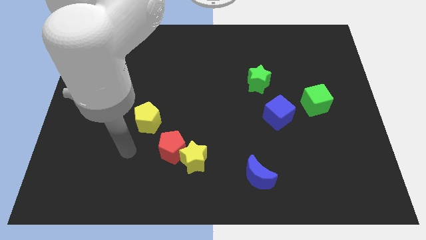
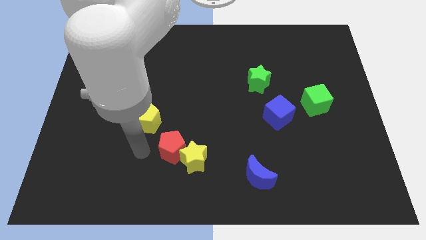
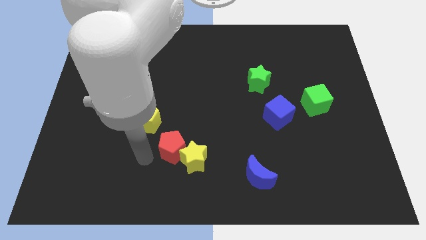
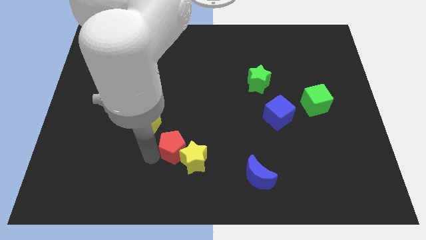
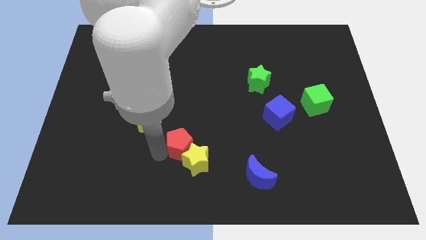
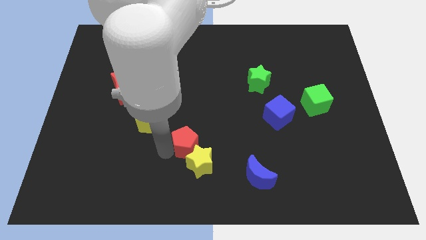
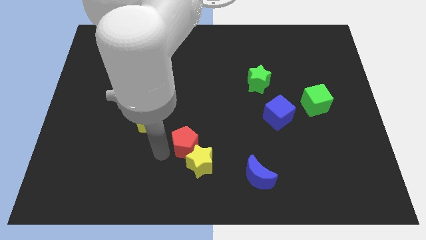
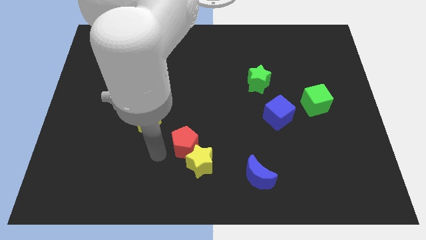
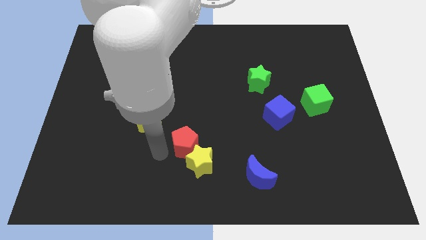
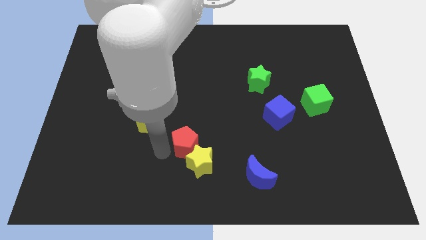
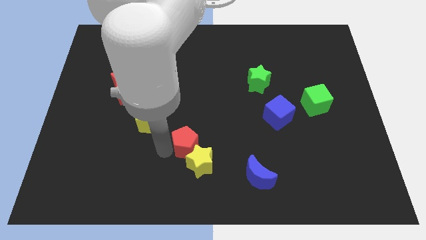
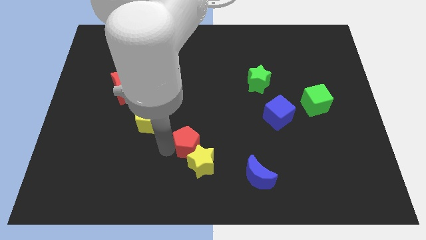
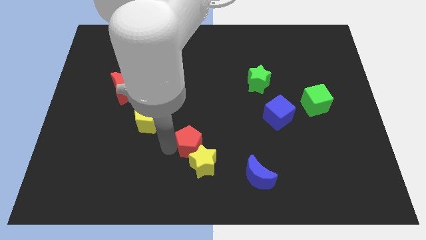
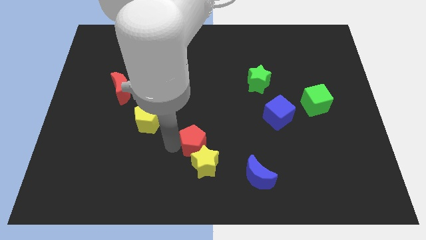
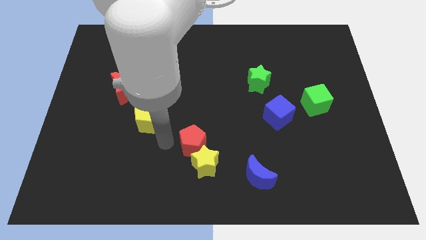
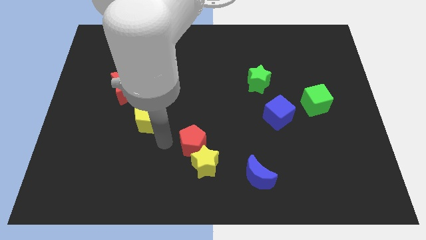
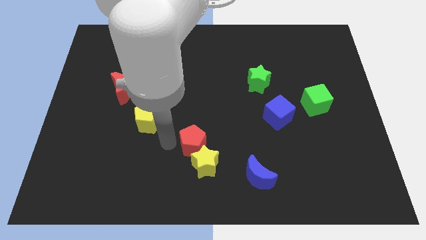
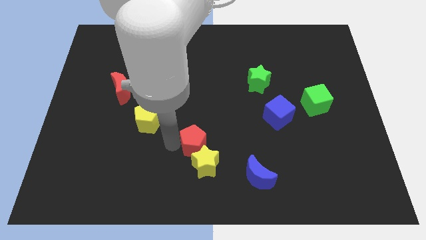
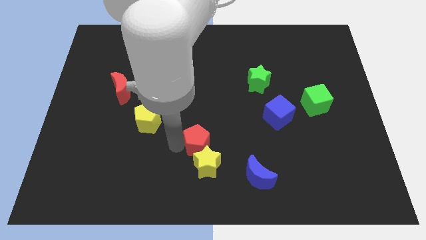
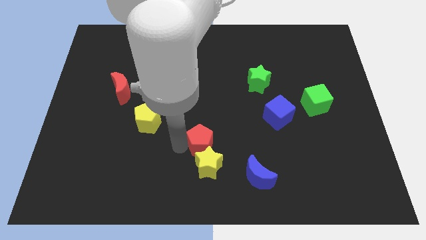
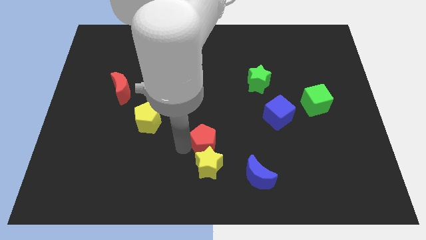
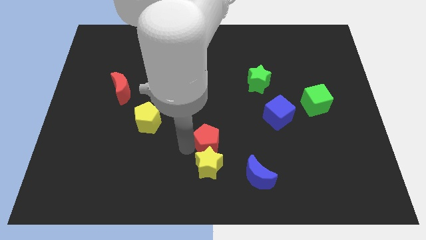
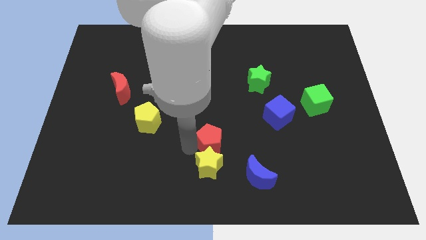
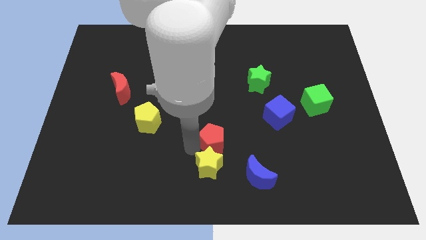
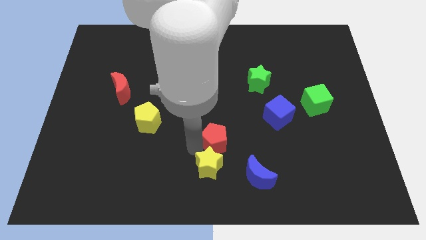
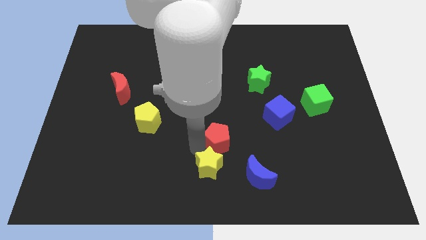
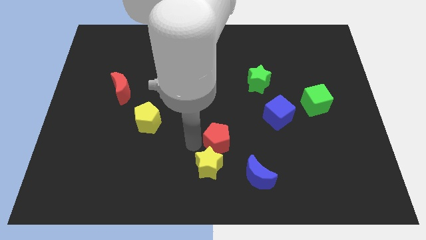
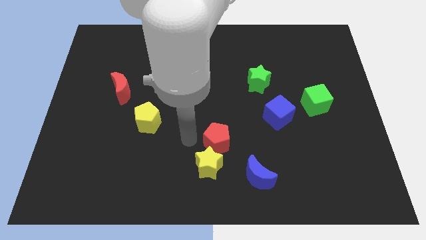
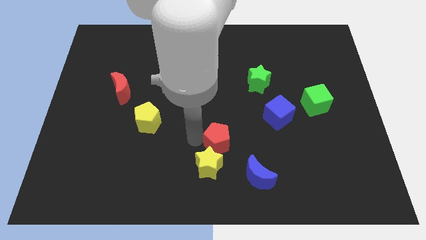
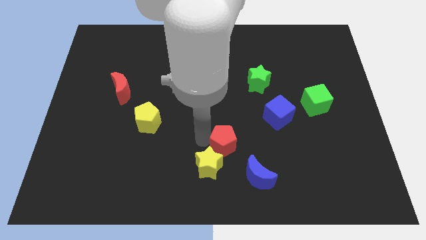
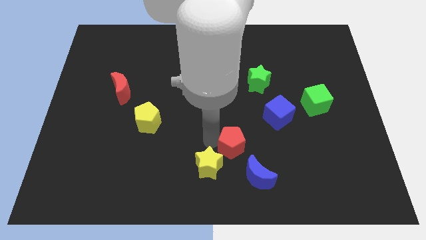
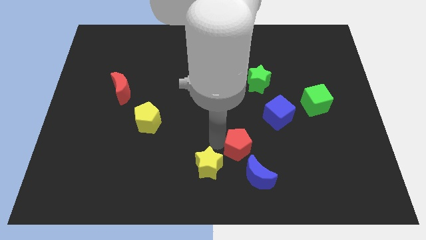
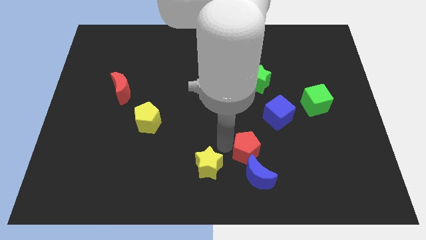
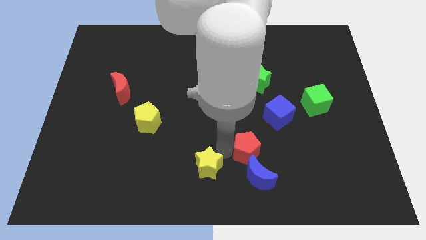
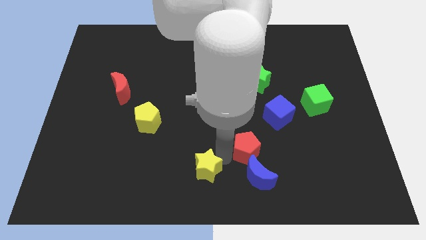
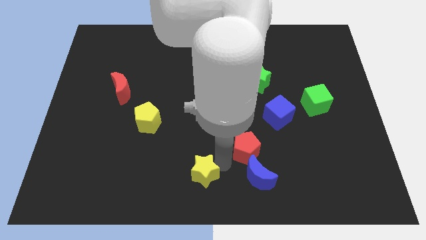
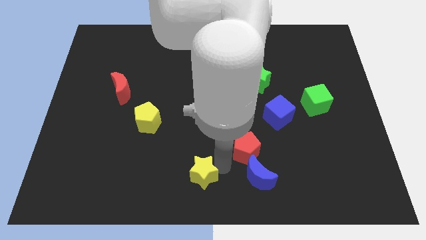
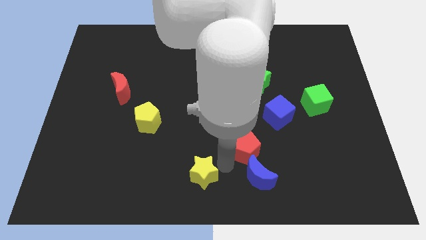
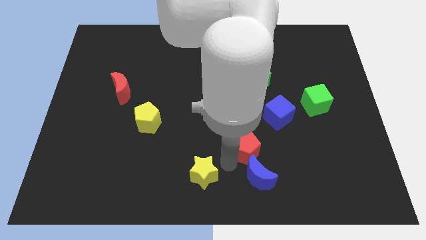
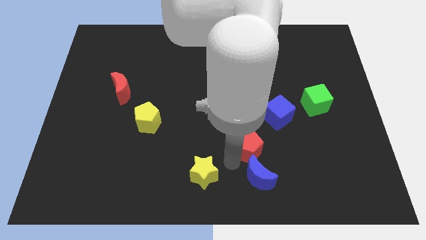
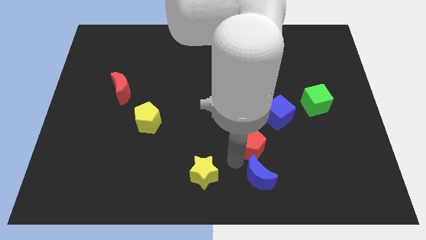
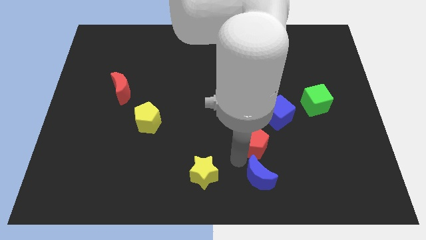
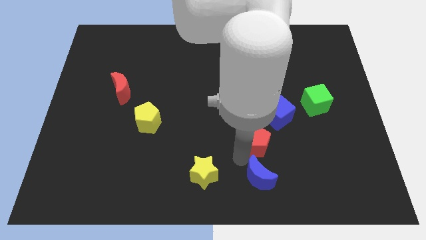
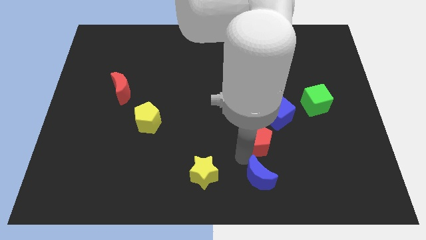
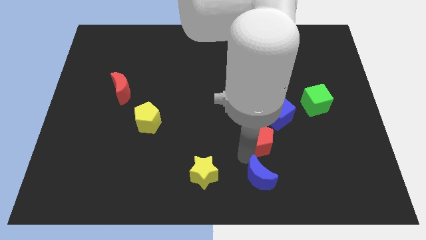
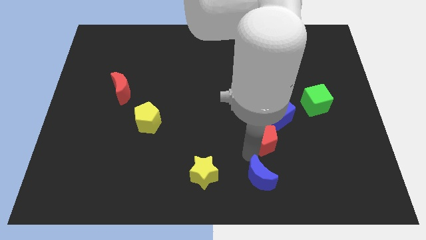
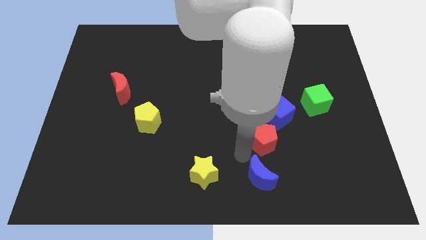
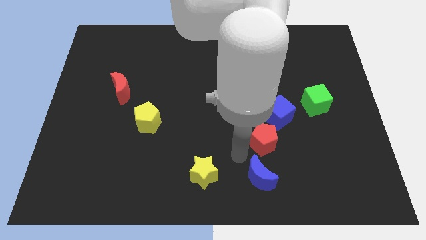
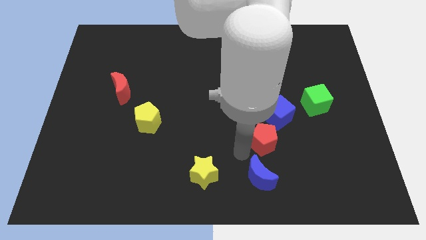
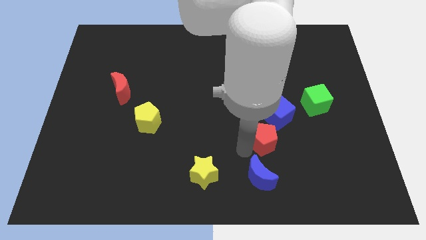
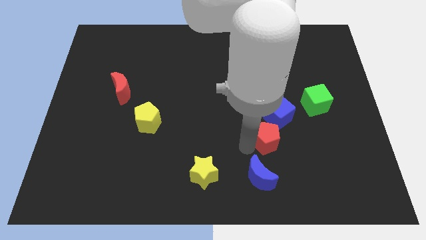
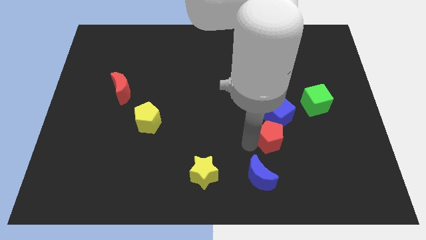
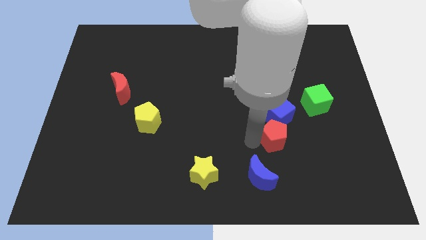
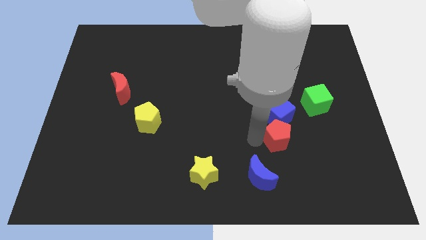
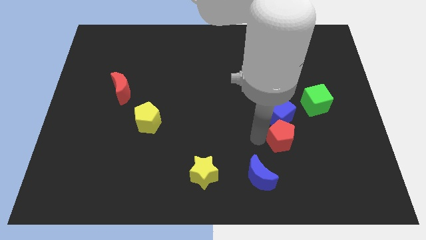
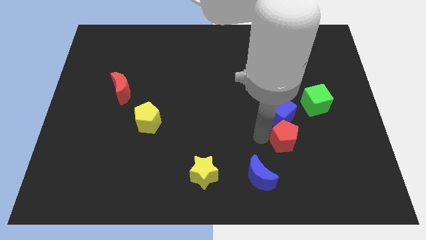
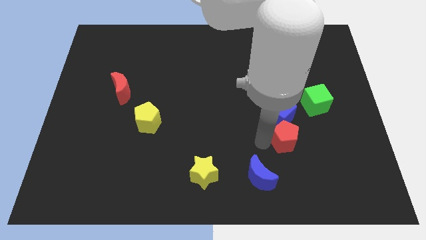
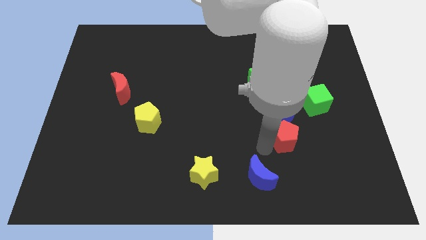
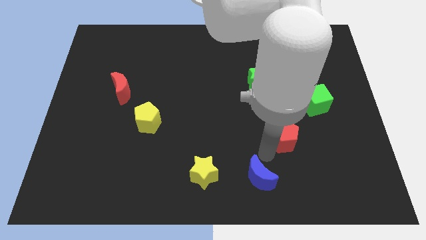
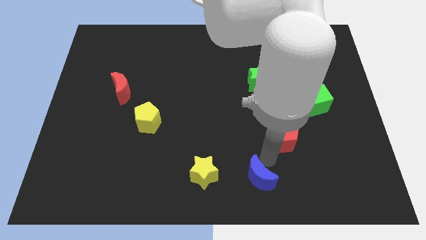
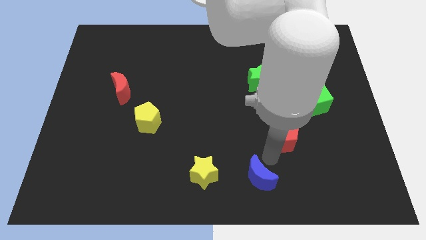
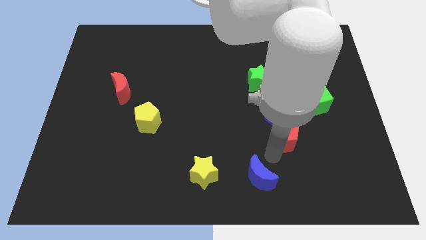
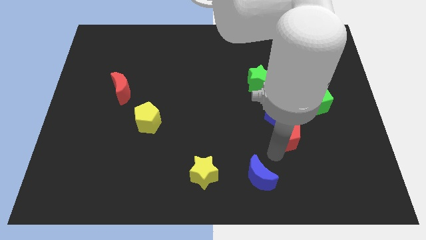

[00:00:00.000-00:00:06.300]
push the red pentagon to the bottom left of the green cube
